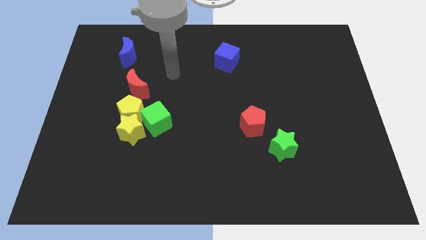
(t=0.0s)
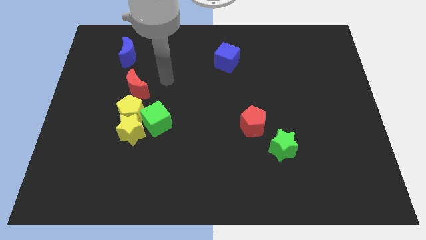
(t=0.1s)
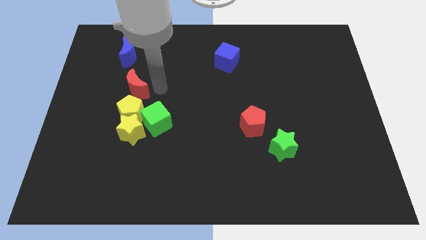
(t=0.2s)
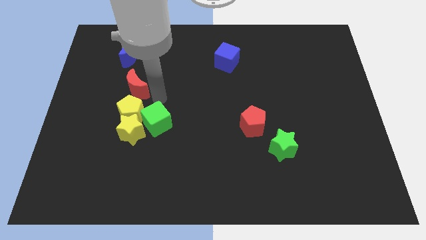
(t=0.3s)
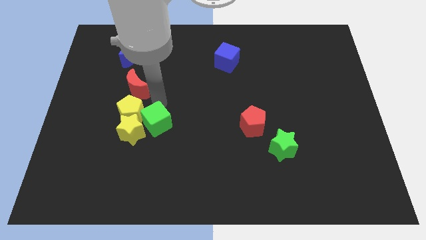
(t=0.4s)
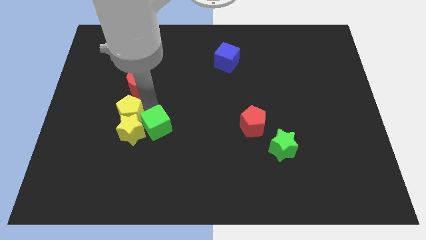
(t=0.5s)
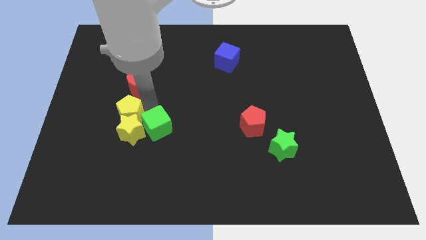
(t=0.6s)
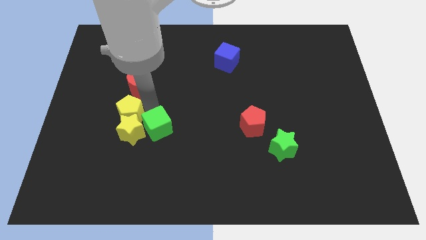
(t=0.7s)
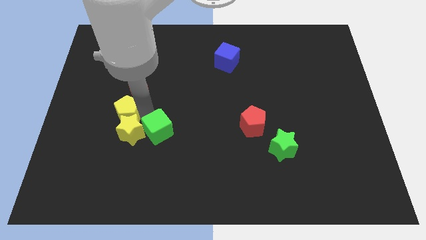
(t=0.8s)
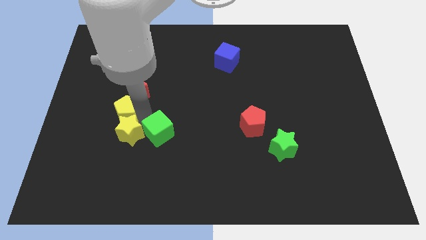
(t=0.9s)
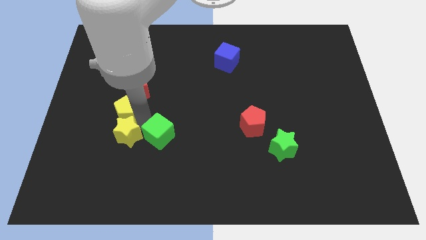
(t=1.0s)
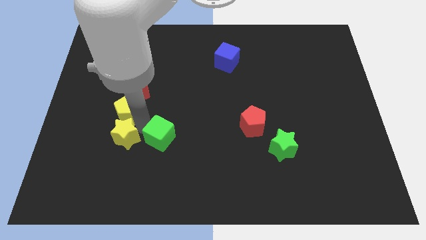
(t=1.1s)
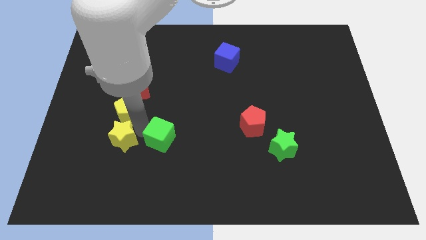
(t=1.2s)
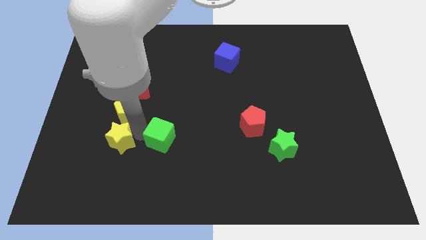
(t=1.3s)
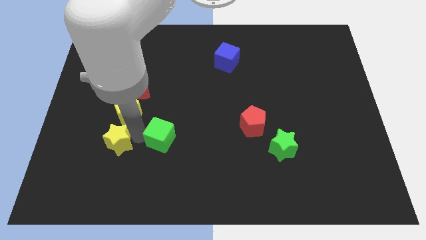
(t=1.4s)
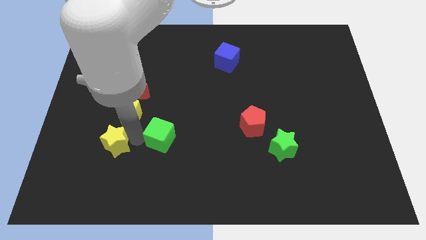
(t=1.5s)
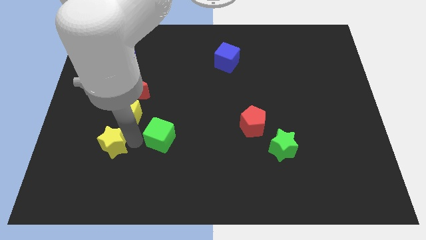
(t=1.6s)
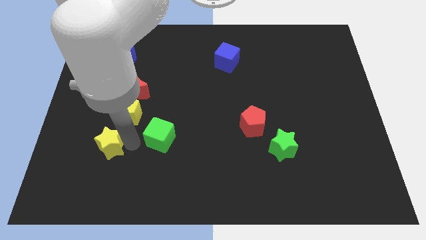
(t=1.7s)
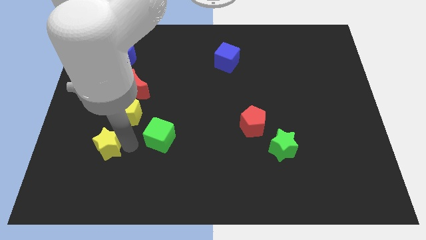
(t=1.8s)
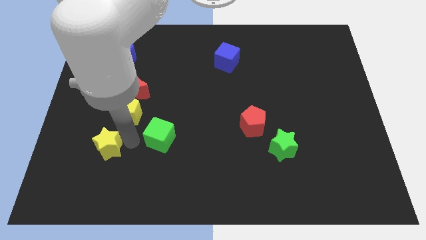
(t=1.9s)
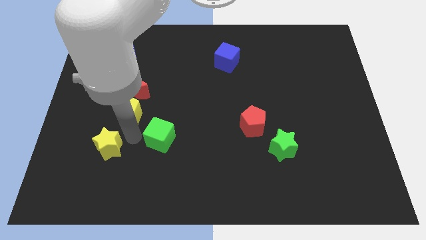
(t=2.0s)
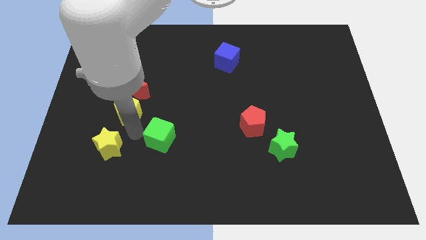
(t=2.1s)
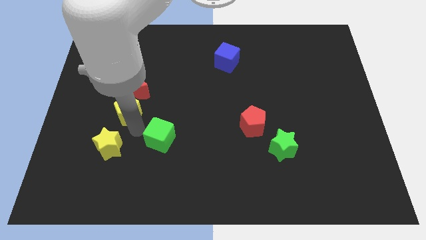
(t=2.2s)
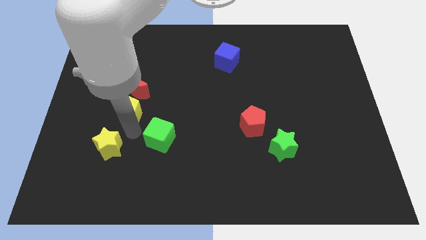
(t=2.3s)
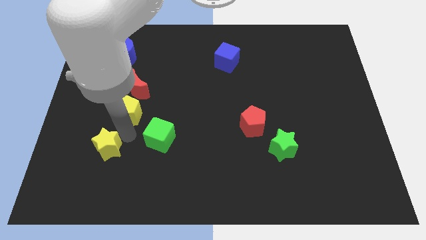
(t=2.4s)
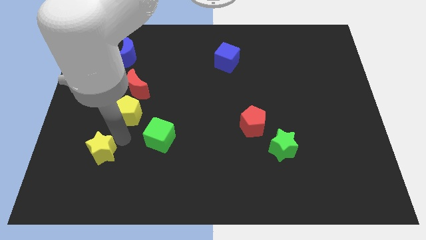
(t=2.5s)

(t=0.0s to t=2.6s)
pull the yellow star apart from the yellow pentagon and green cube

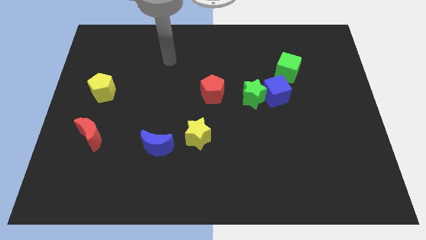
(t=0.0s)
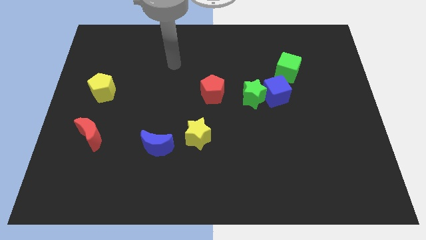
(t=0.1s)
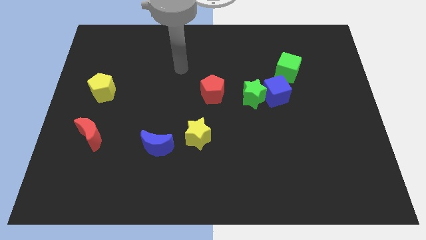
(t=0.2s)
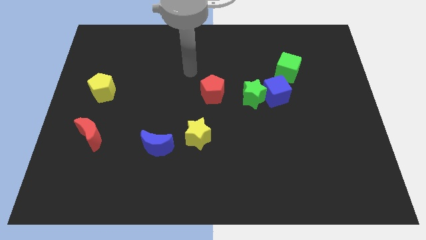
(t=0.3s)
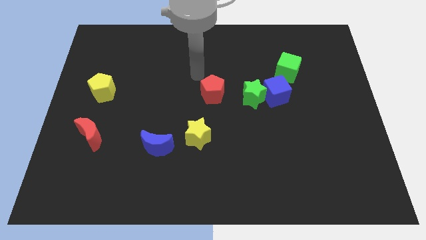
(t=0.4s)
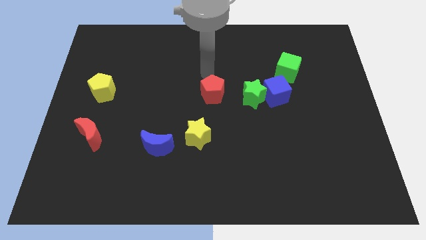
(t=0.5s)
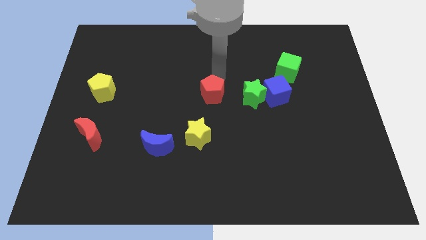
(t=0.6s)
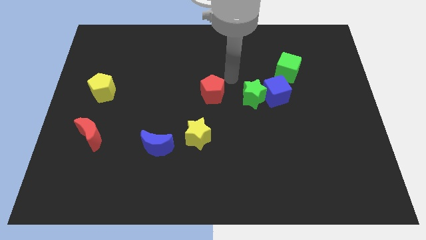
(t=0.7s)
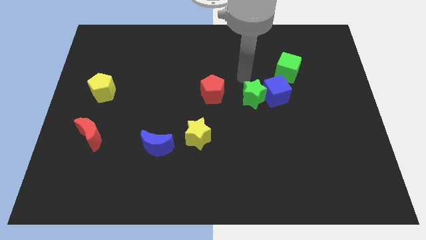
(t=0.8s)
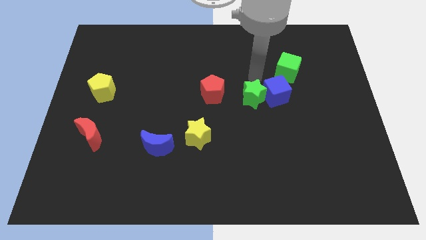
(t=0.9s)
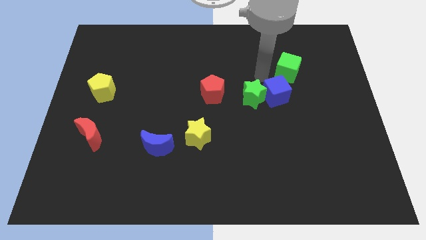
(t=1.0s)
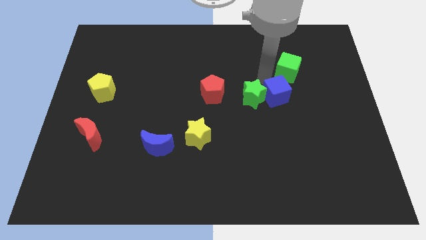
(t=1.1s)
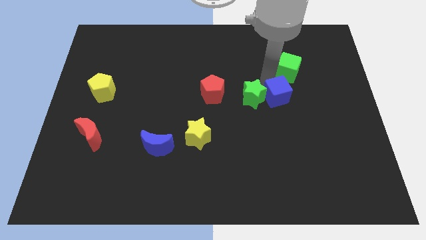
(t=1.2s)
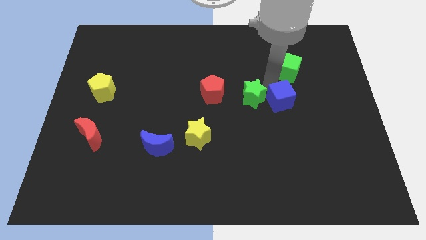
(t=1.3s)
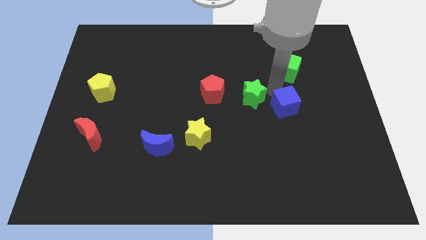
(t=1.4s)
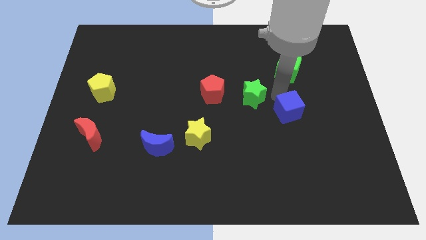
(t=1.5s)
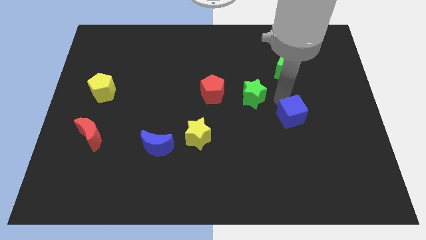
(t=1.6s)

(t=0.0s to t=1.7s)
separate the blue cube from the green star and green cube

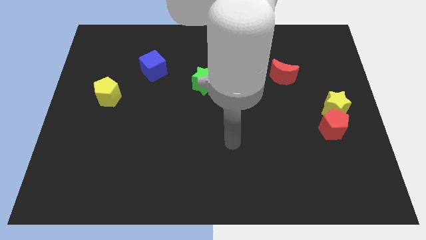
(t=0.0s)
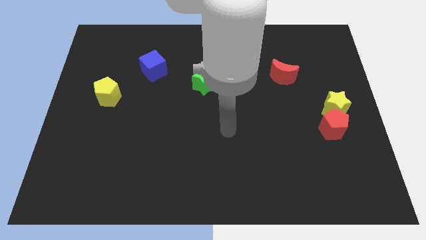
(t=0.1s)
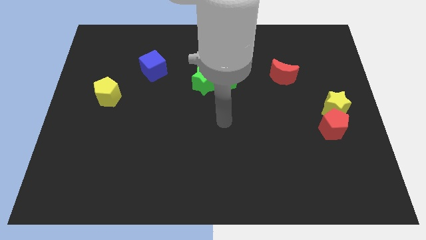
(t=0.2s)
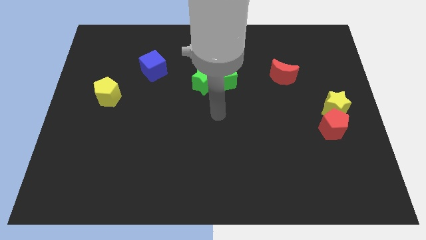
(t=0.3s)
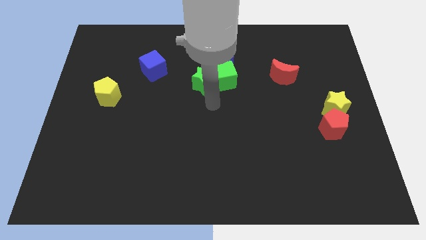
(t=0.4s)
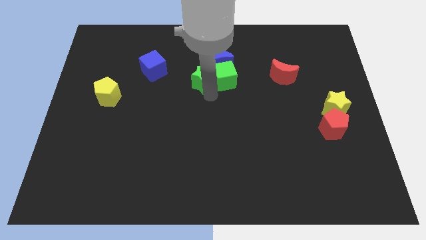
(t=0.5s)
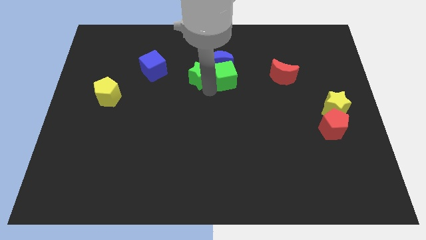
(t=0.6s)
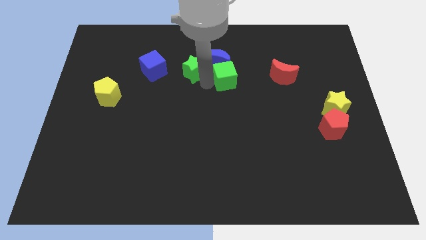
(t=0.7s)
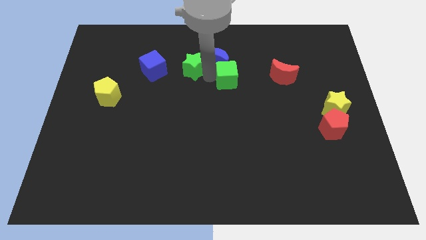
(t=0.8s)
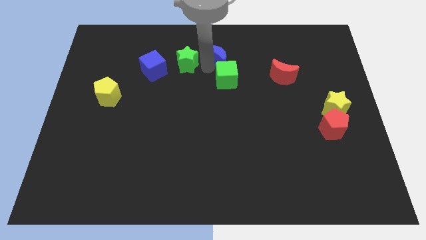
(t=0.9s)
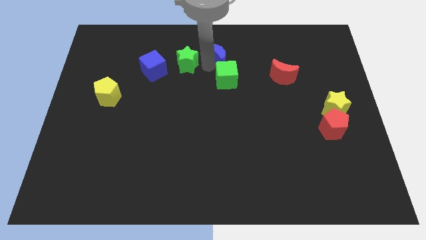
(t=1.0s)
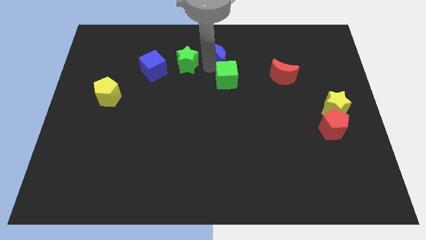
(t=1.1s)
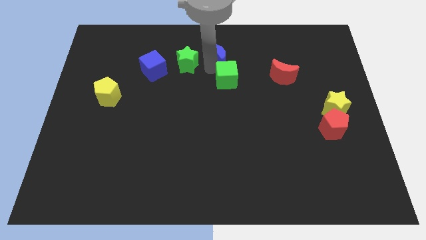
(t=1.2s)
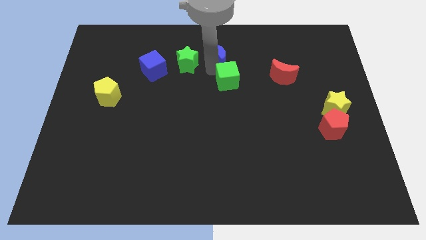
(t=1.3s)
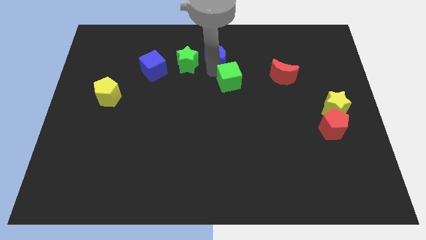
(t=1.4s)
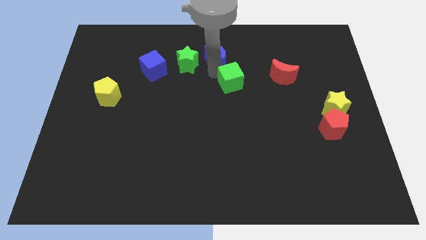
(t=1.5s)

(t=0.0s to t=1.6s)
move the green cube away from the blue moon and green star

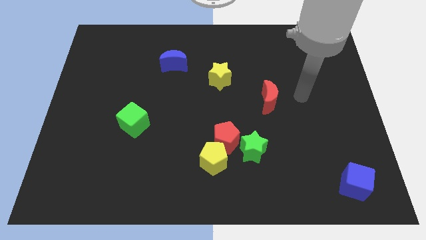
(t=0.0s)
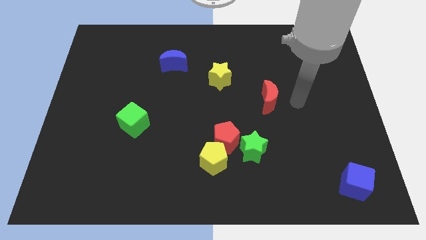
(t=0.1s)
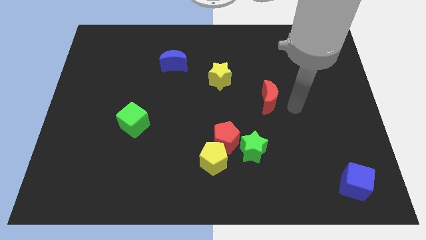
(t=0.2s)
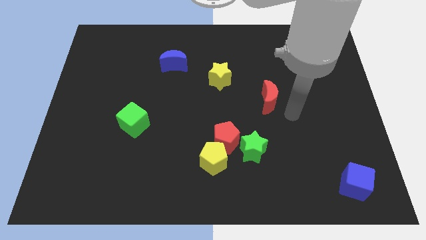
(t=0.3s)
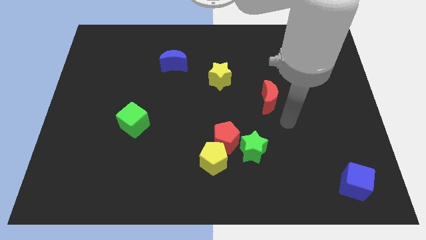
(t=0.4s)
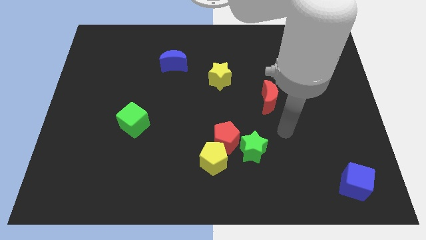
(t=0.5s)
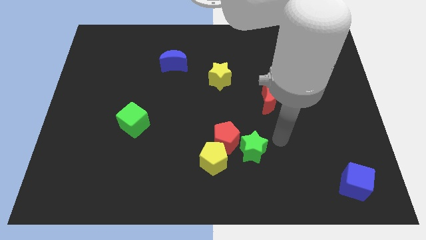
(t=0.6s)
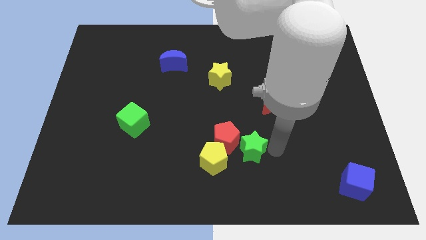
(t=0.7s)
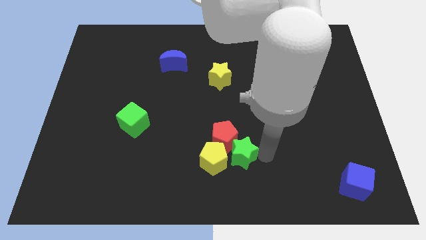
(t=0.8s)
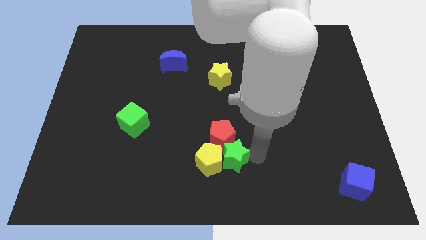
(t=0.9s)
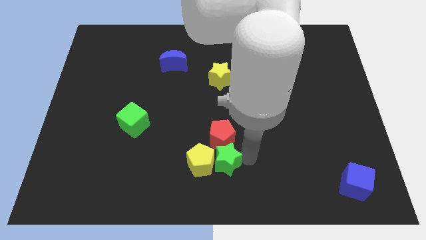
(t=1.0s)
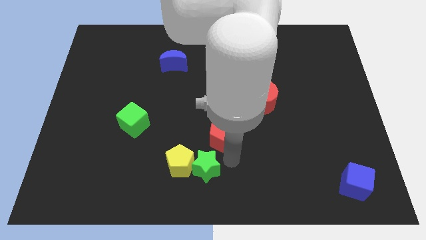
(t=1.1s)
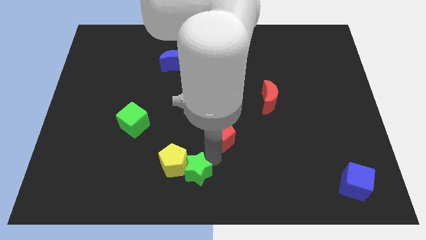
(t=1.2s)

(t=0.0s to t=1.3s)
separate the red pentagon from the yellow pentagon and green star

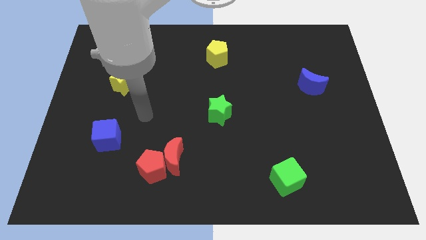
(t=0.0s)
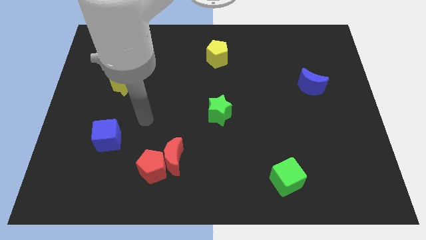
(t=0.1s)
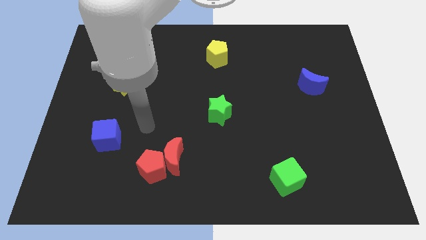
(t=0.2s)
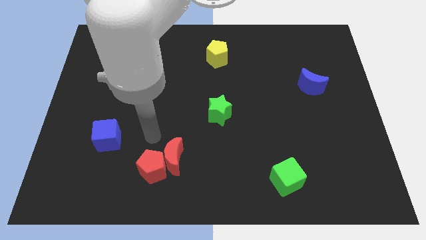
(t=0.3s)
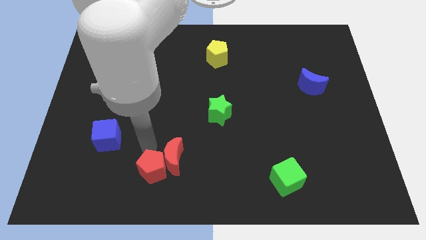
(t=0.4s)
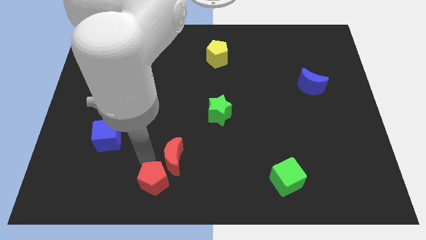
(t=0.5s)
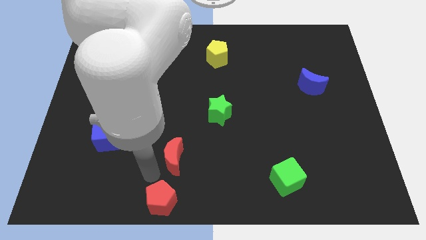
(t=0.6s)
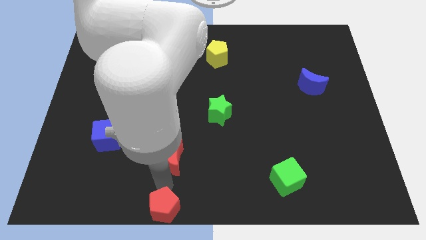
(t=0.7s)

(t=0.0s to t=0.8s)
separate the red moon from the red pentagon

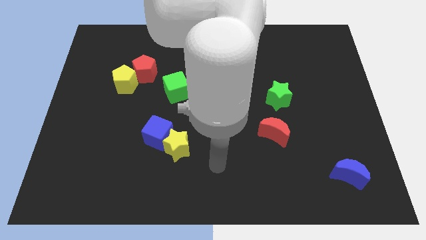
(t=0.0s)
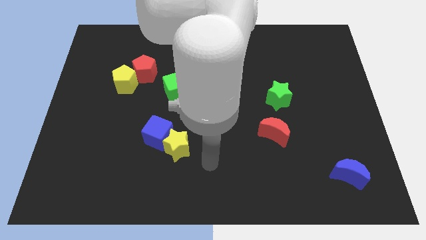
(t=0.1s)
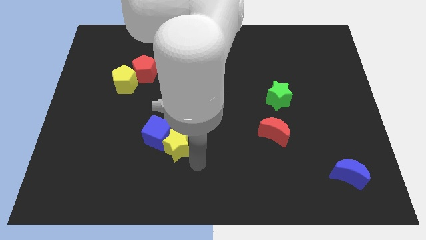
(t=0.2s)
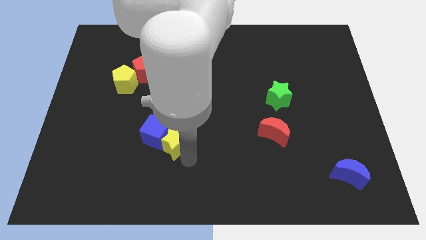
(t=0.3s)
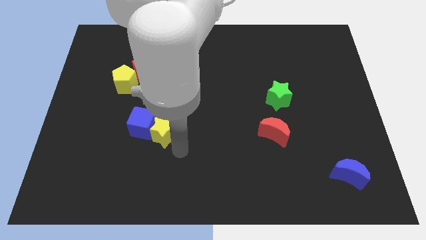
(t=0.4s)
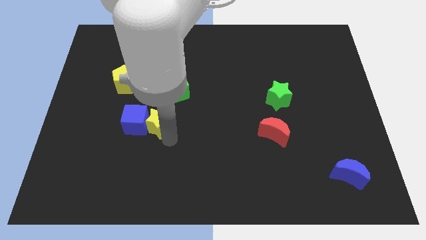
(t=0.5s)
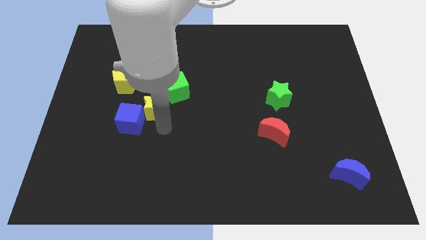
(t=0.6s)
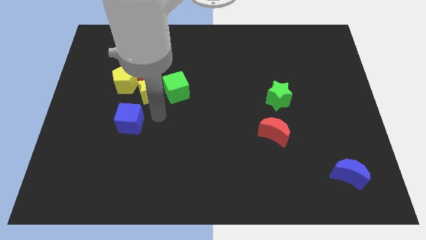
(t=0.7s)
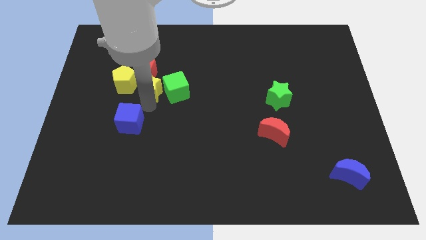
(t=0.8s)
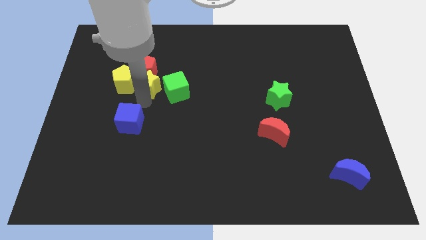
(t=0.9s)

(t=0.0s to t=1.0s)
move the blue cube away from the yellow star

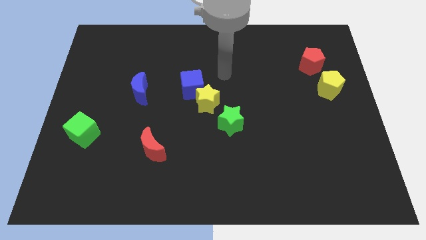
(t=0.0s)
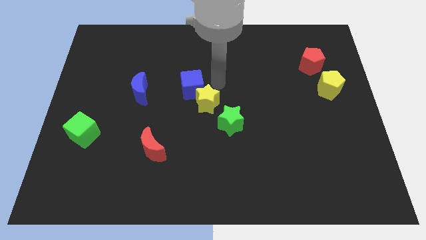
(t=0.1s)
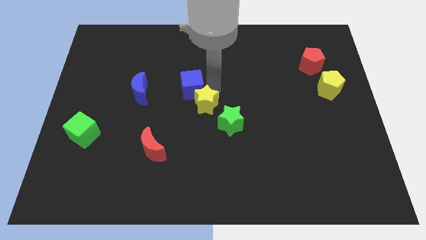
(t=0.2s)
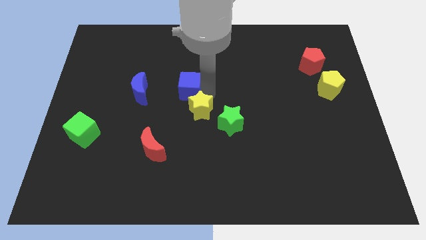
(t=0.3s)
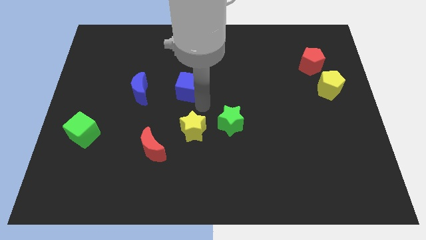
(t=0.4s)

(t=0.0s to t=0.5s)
separate the blue cube from the yellow star
